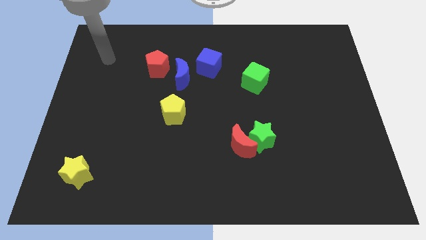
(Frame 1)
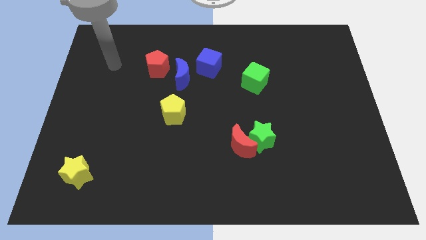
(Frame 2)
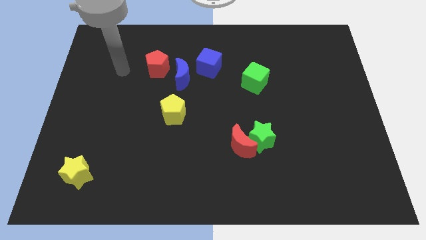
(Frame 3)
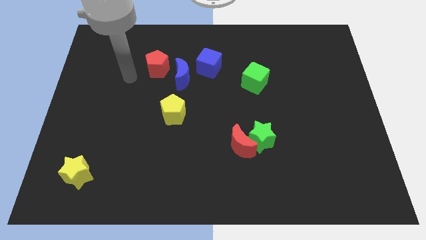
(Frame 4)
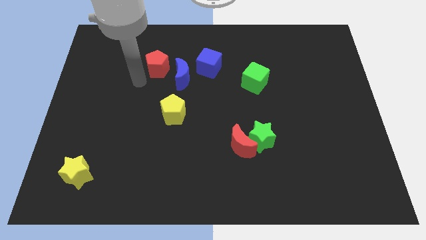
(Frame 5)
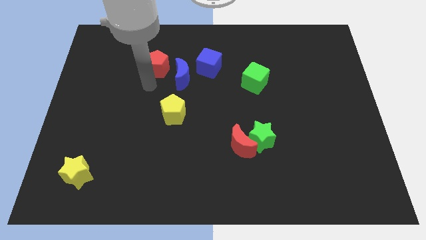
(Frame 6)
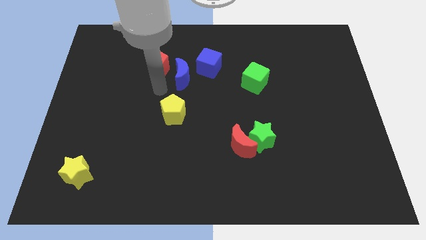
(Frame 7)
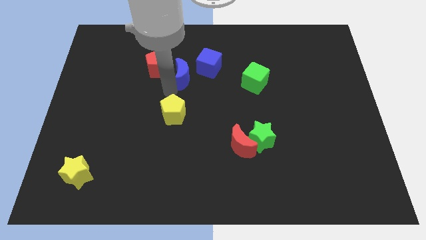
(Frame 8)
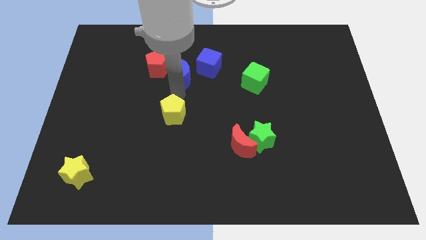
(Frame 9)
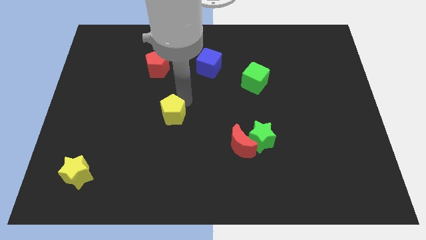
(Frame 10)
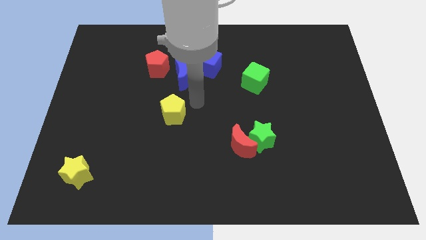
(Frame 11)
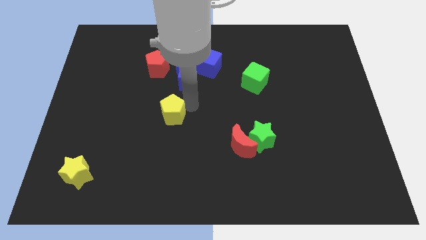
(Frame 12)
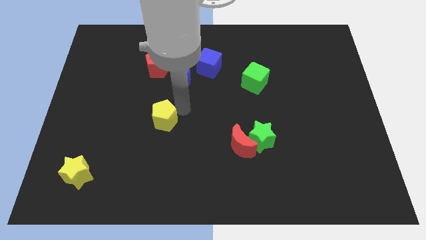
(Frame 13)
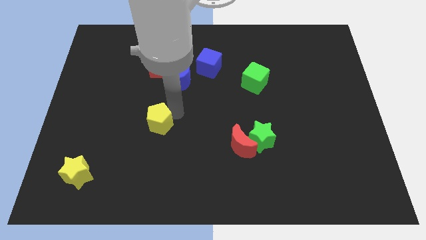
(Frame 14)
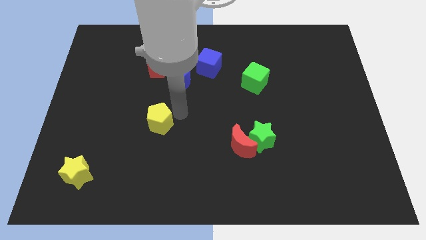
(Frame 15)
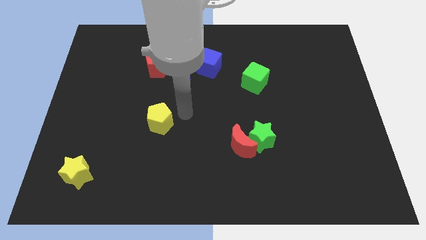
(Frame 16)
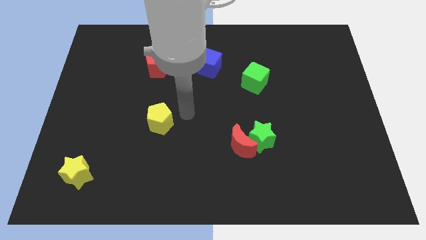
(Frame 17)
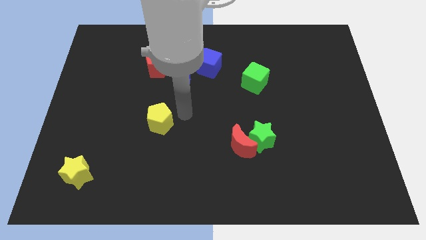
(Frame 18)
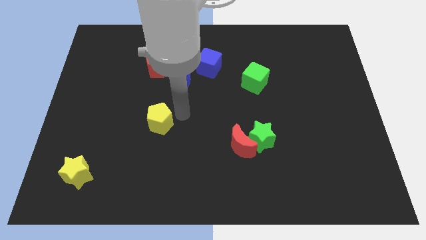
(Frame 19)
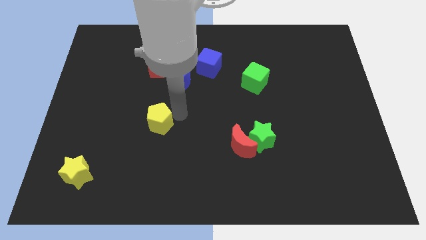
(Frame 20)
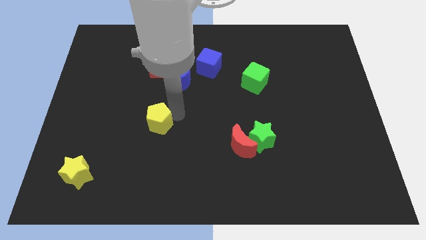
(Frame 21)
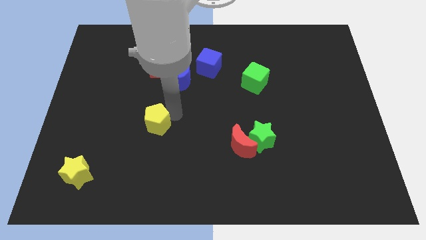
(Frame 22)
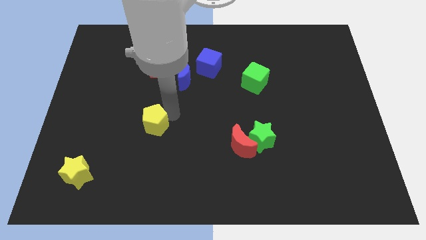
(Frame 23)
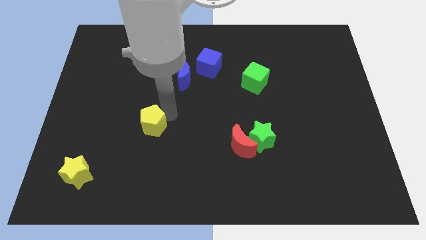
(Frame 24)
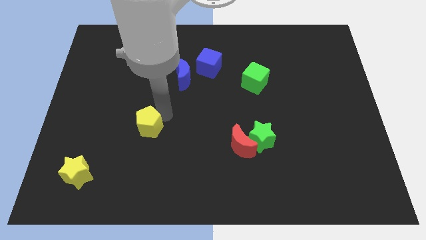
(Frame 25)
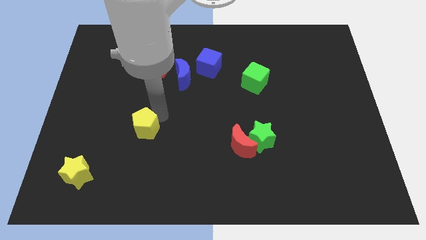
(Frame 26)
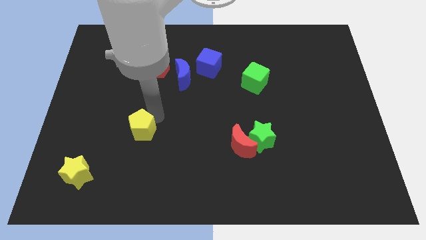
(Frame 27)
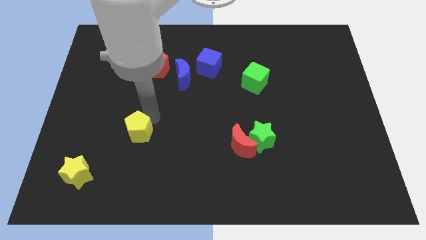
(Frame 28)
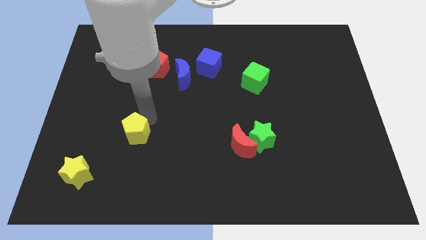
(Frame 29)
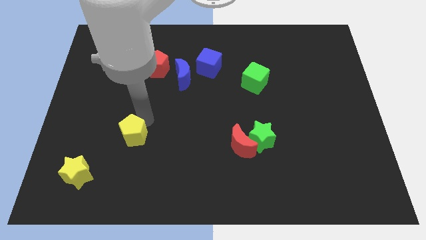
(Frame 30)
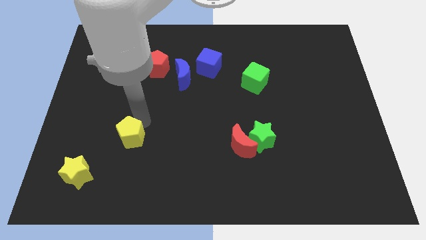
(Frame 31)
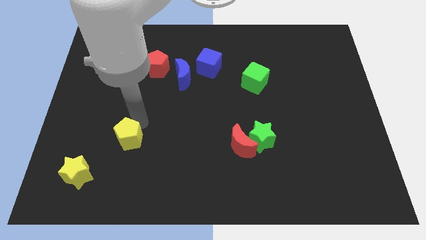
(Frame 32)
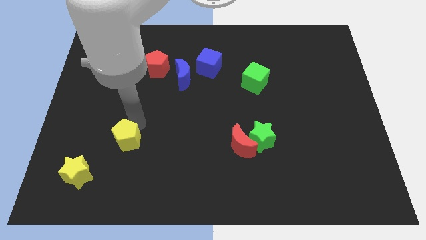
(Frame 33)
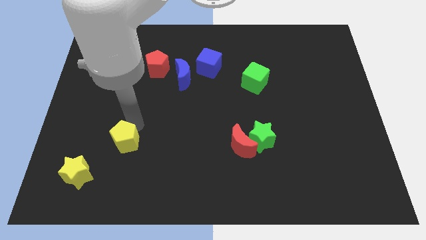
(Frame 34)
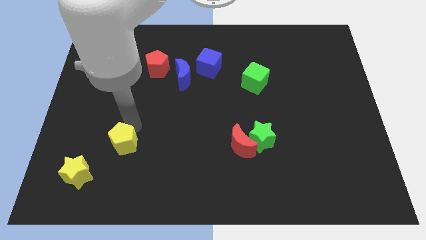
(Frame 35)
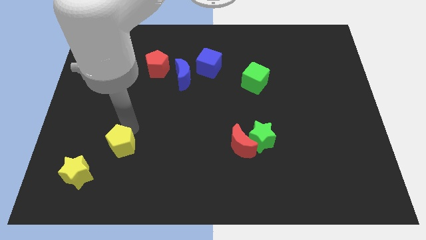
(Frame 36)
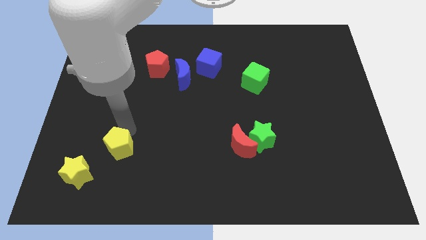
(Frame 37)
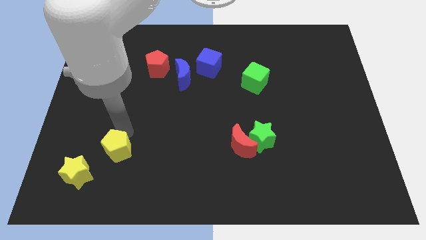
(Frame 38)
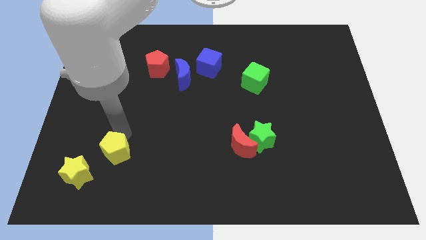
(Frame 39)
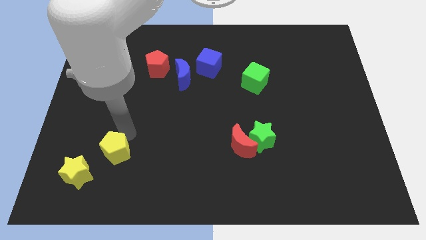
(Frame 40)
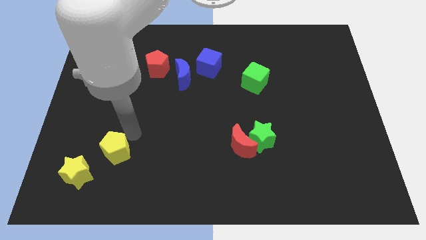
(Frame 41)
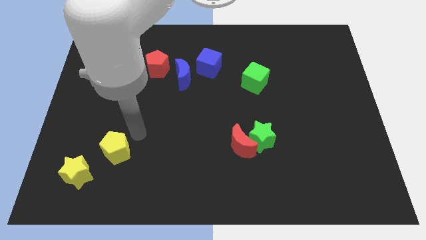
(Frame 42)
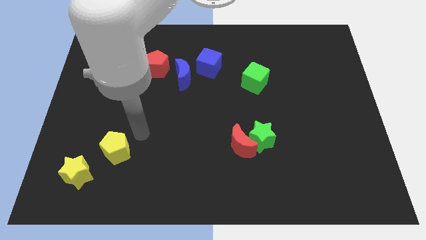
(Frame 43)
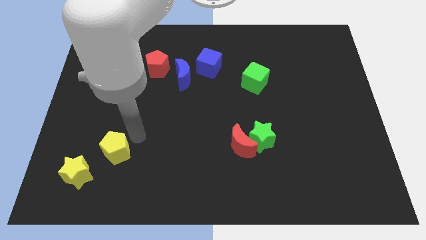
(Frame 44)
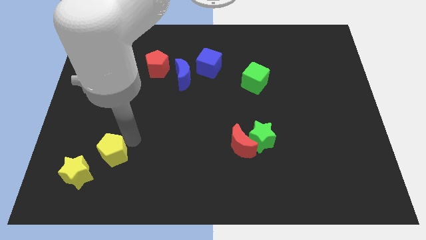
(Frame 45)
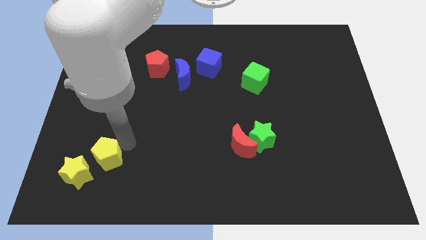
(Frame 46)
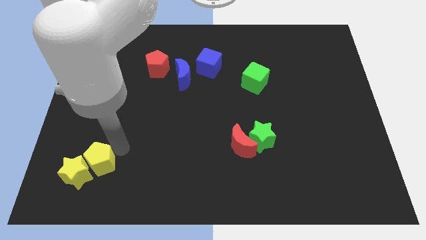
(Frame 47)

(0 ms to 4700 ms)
push the yellow pentagon towards the yellow star

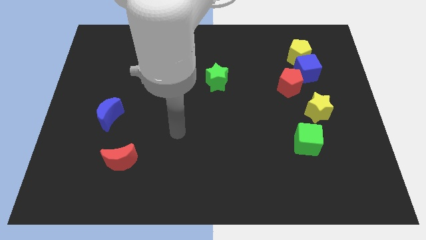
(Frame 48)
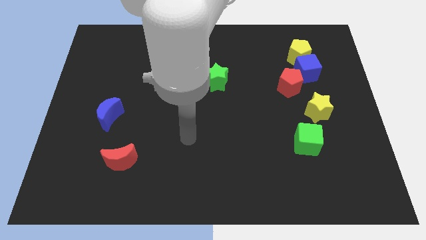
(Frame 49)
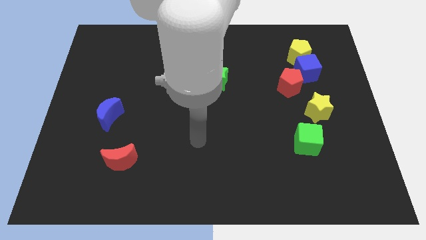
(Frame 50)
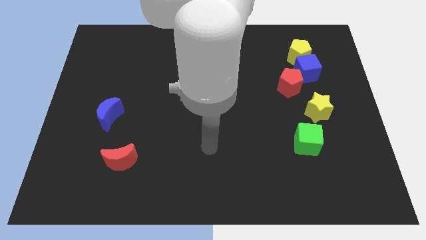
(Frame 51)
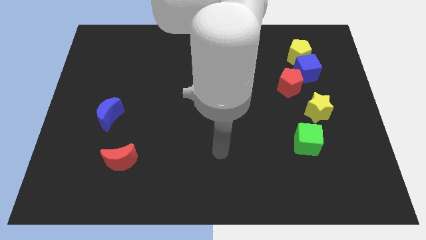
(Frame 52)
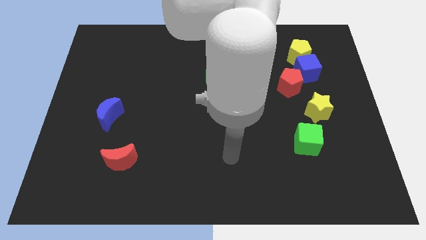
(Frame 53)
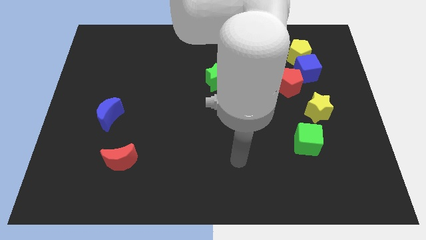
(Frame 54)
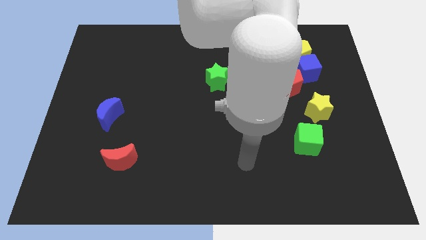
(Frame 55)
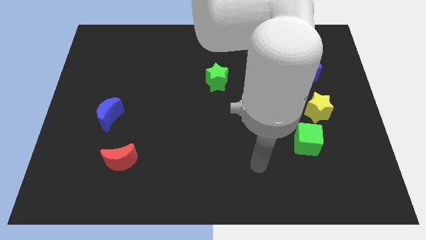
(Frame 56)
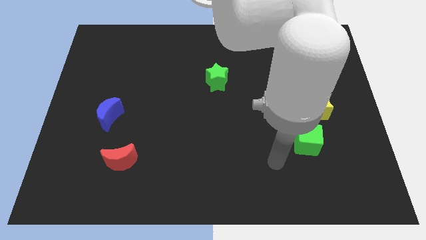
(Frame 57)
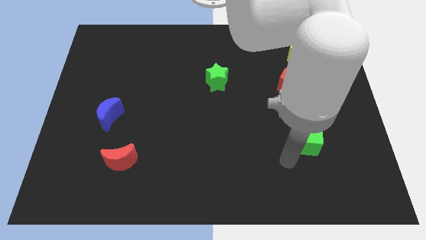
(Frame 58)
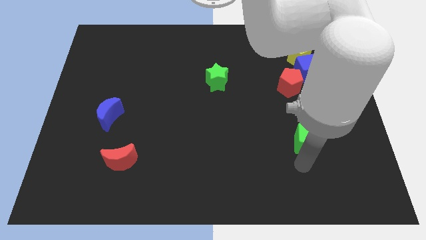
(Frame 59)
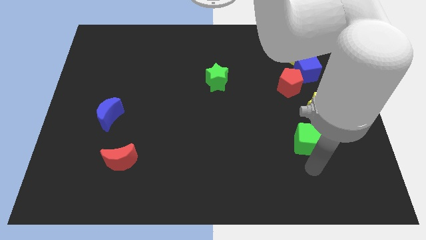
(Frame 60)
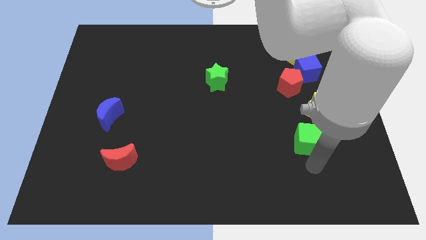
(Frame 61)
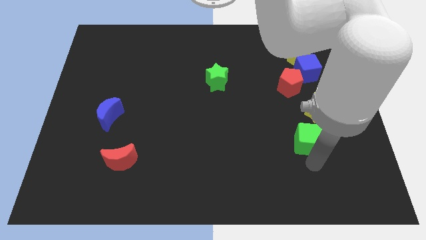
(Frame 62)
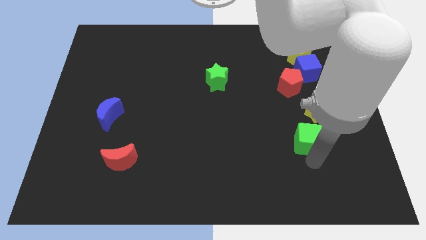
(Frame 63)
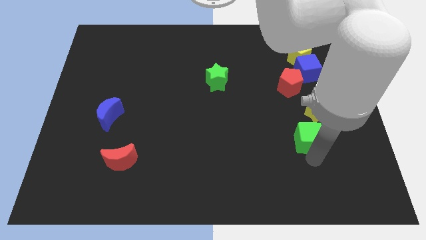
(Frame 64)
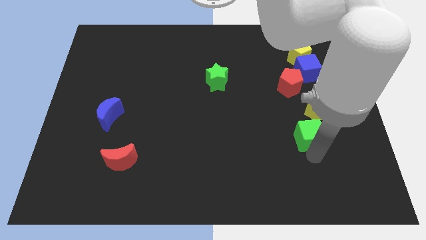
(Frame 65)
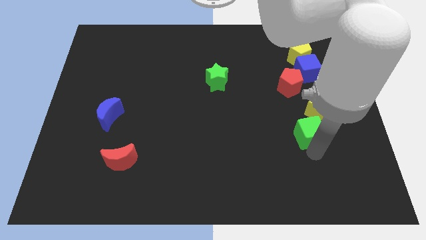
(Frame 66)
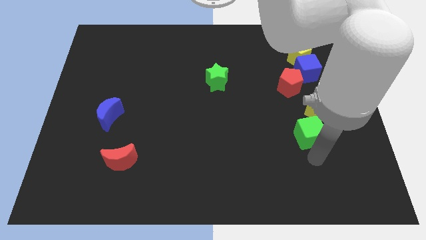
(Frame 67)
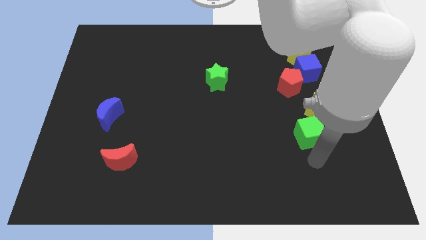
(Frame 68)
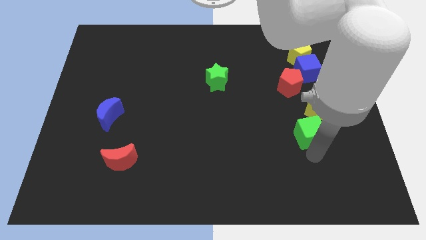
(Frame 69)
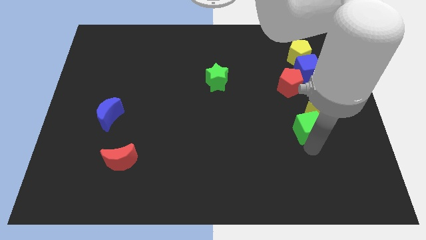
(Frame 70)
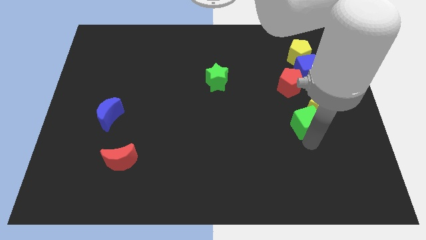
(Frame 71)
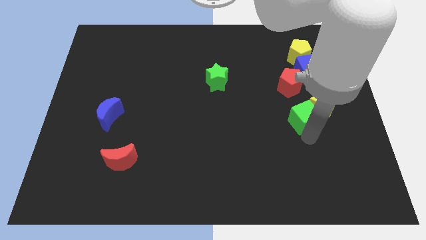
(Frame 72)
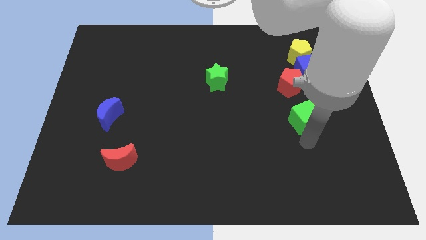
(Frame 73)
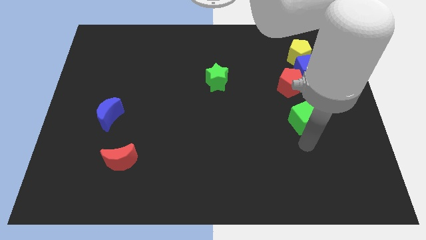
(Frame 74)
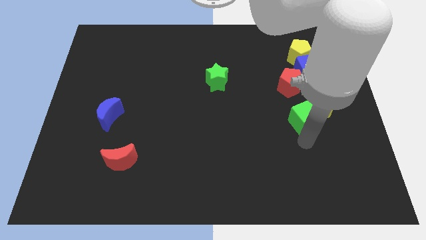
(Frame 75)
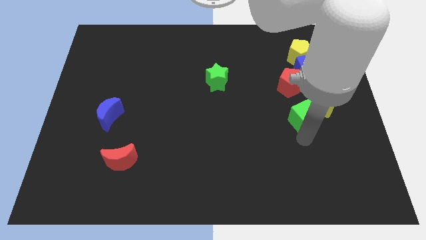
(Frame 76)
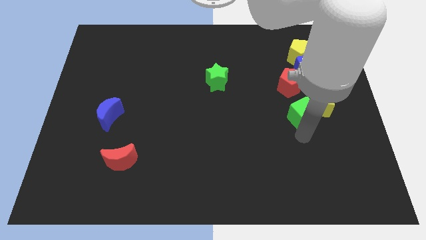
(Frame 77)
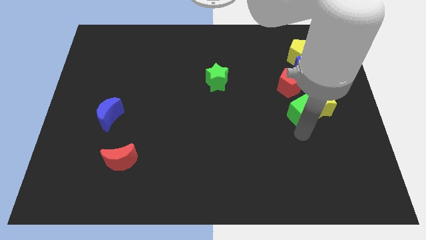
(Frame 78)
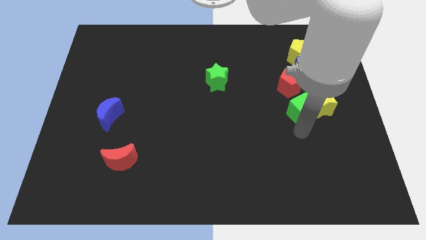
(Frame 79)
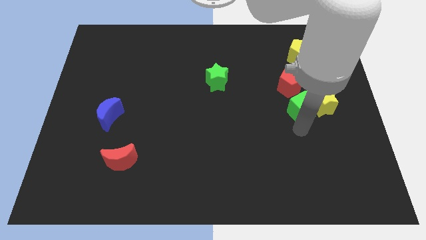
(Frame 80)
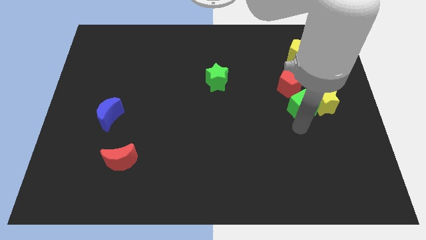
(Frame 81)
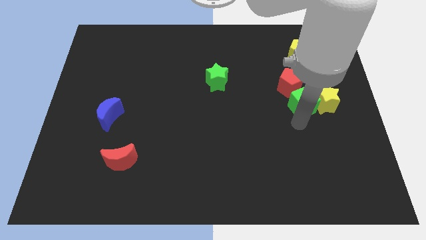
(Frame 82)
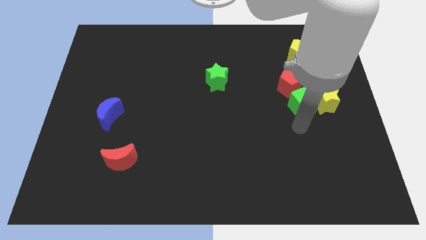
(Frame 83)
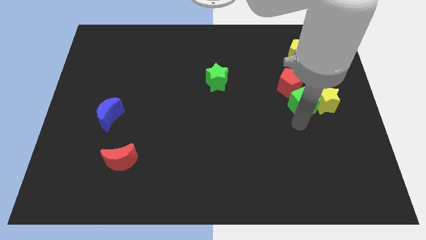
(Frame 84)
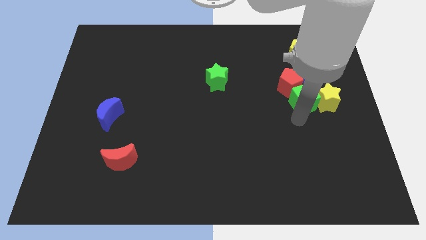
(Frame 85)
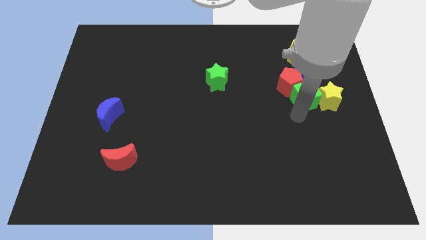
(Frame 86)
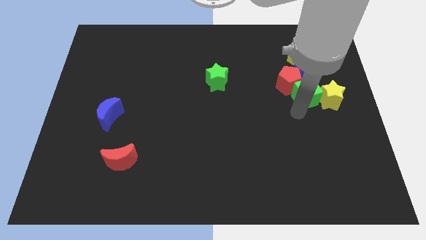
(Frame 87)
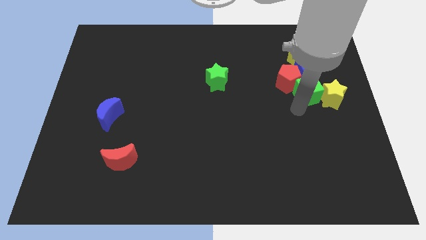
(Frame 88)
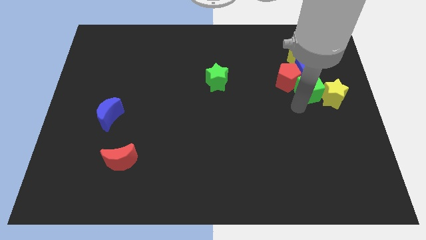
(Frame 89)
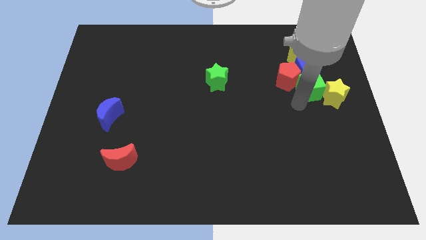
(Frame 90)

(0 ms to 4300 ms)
push the green cube to the blue cube
